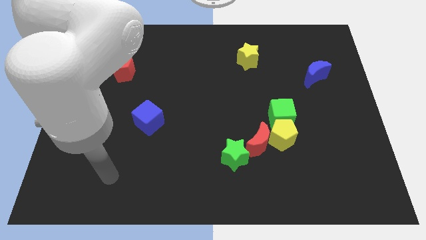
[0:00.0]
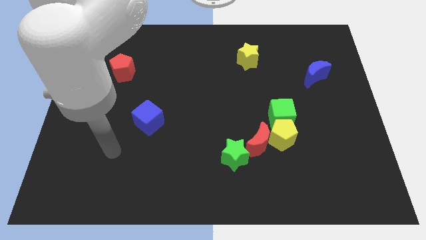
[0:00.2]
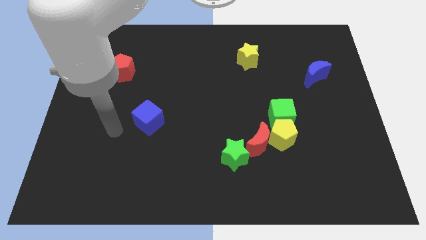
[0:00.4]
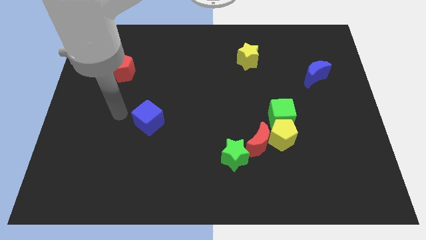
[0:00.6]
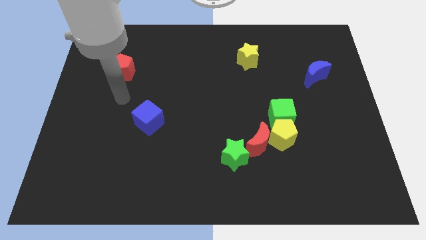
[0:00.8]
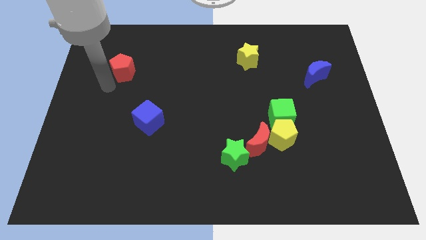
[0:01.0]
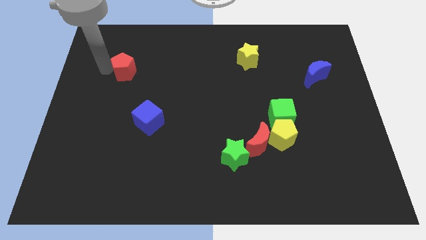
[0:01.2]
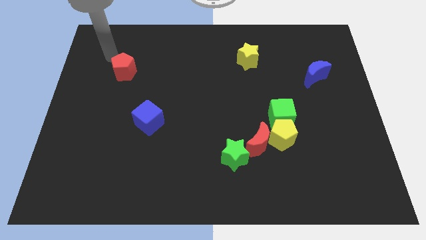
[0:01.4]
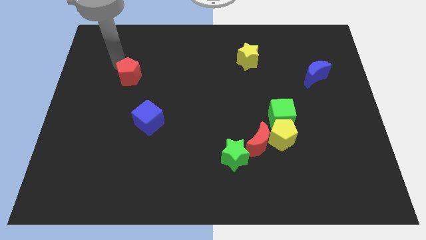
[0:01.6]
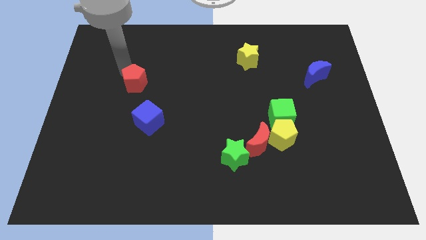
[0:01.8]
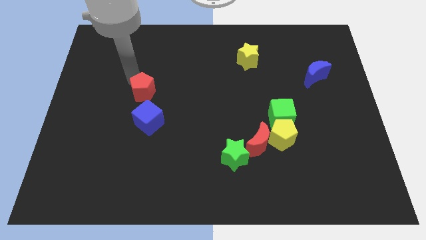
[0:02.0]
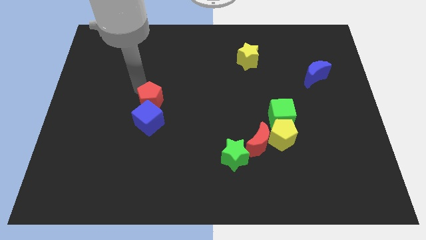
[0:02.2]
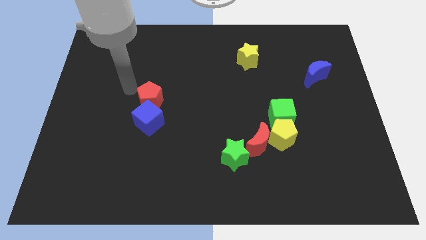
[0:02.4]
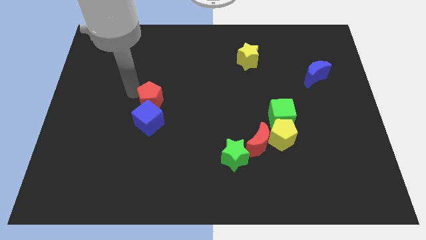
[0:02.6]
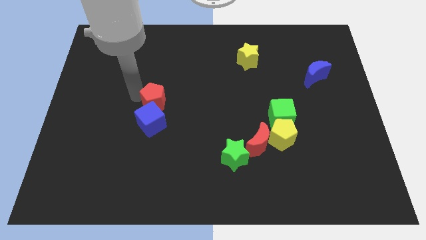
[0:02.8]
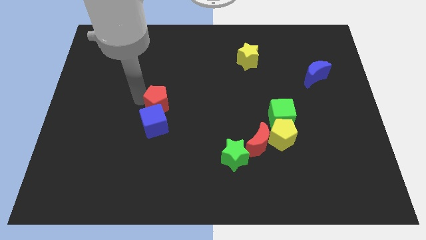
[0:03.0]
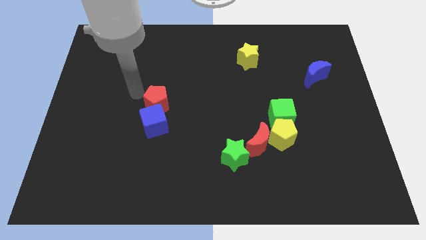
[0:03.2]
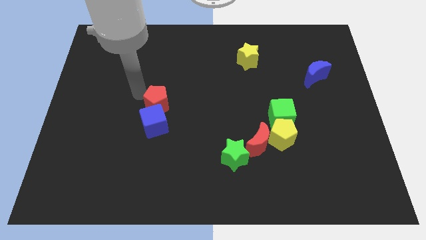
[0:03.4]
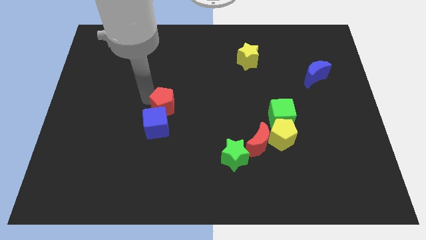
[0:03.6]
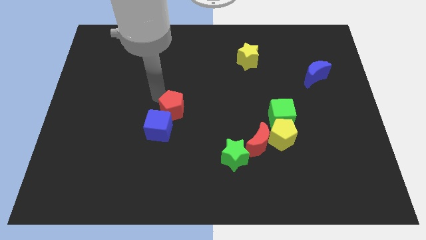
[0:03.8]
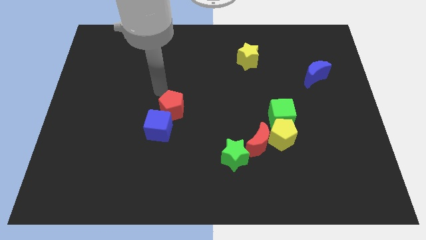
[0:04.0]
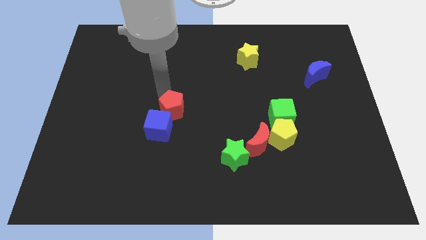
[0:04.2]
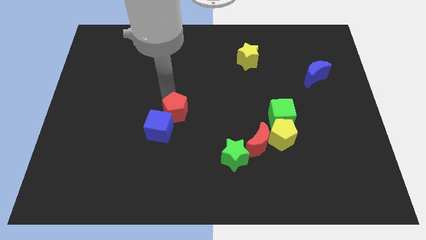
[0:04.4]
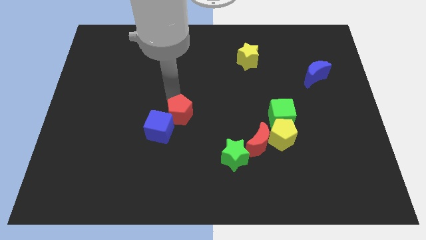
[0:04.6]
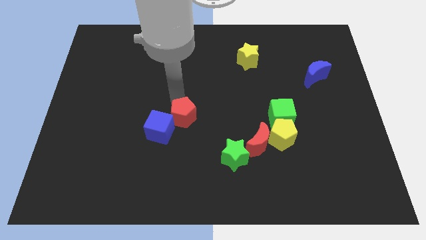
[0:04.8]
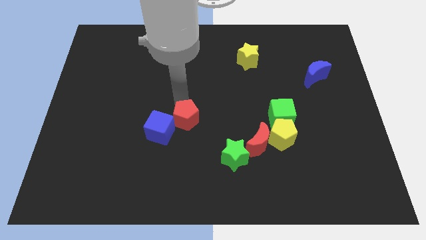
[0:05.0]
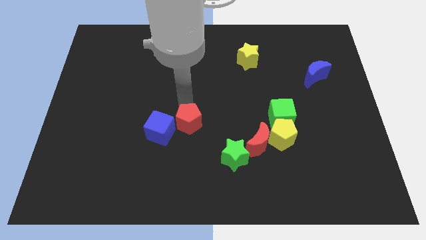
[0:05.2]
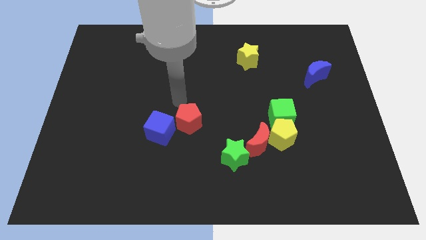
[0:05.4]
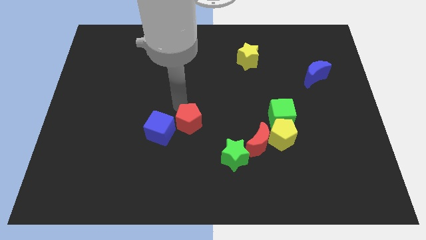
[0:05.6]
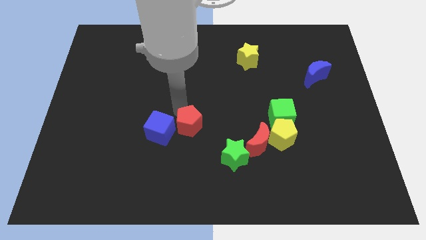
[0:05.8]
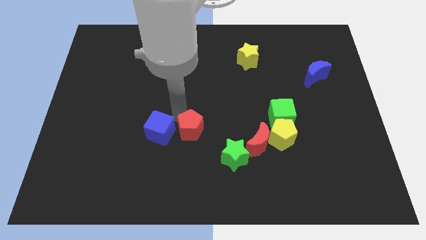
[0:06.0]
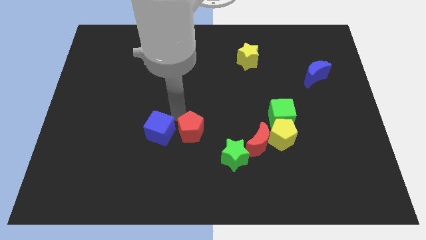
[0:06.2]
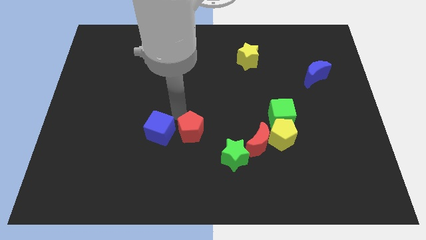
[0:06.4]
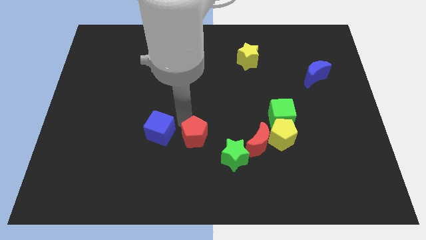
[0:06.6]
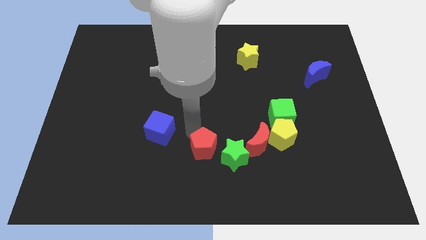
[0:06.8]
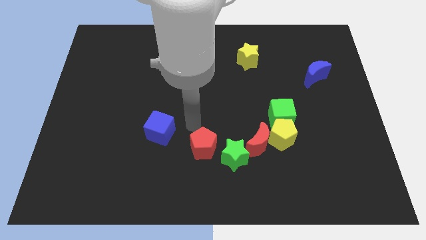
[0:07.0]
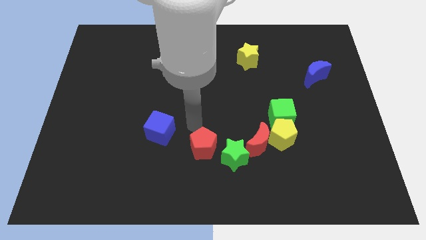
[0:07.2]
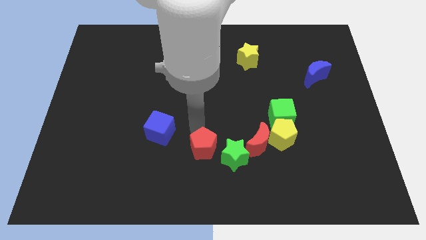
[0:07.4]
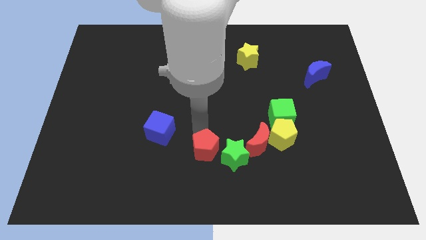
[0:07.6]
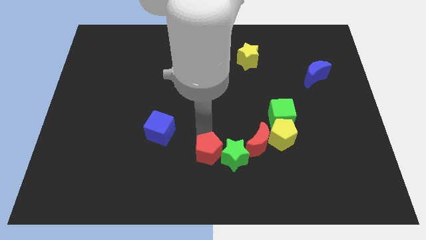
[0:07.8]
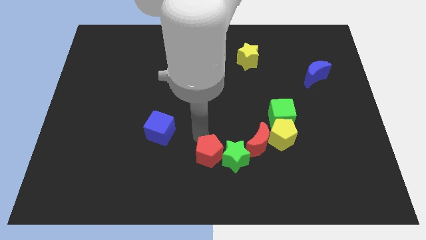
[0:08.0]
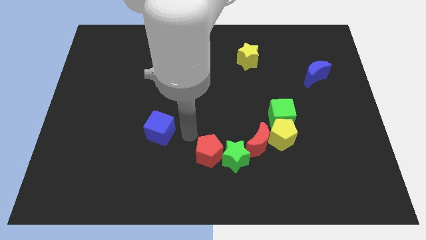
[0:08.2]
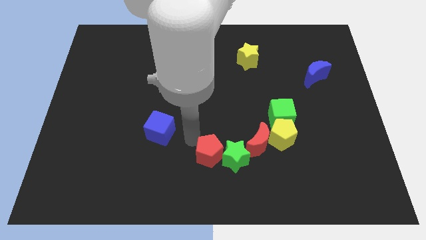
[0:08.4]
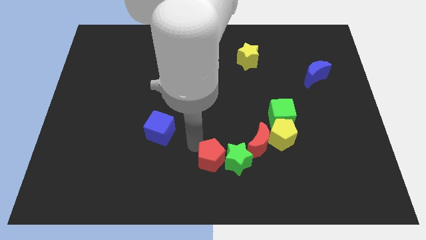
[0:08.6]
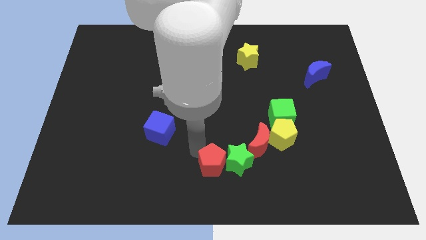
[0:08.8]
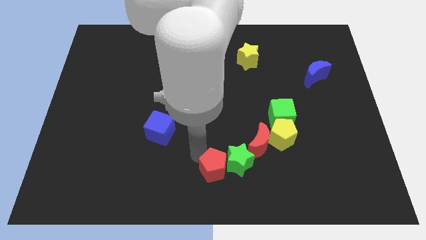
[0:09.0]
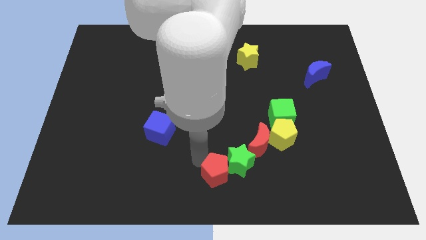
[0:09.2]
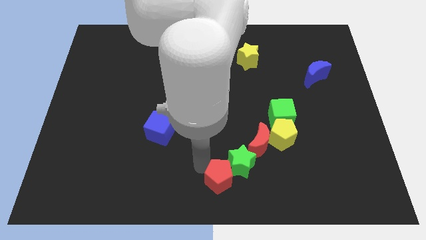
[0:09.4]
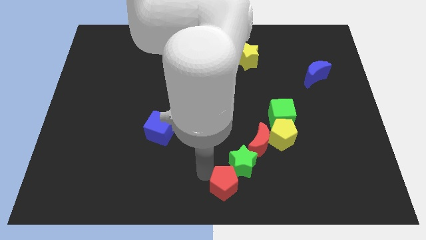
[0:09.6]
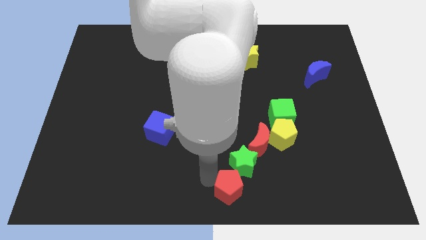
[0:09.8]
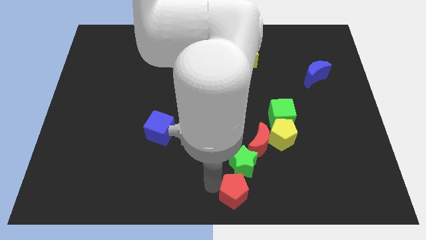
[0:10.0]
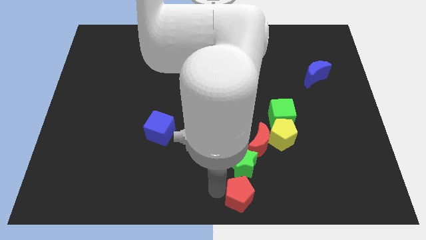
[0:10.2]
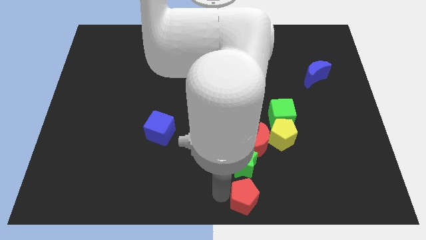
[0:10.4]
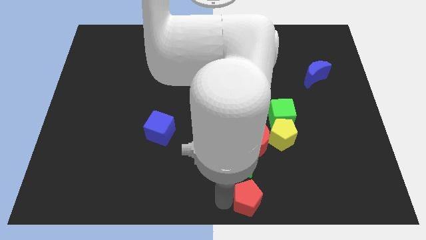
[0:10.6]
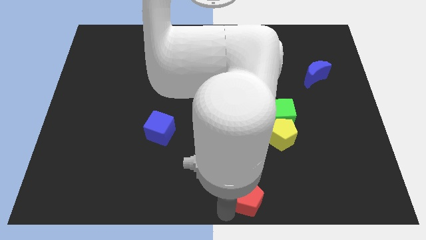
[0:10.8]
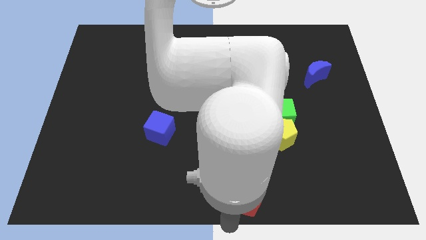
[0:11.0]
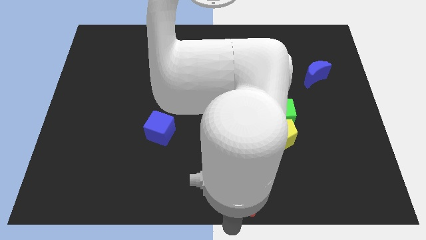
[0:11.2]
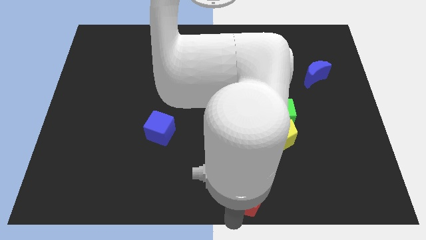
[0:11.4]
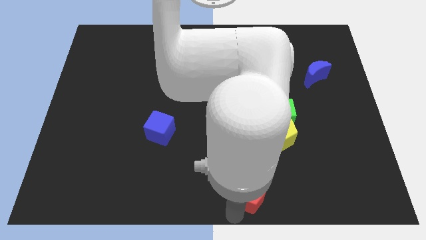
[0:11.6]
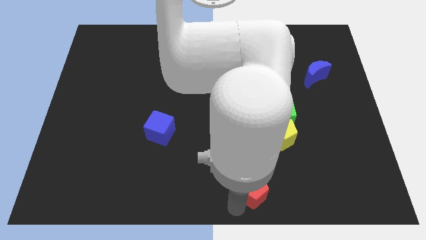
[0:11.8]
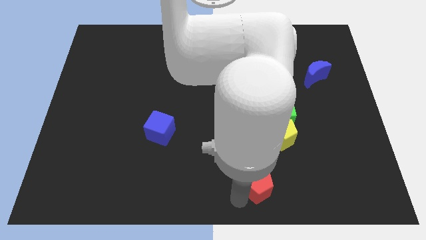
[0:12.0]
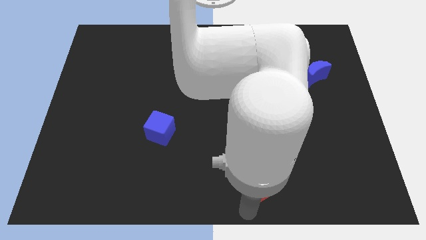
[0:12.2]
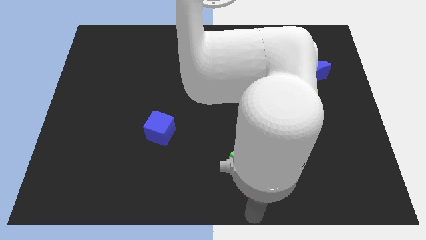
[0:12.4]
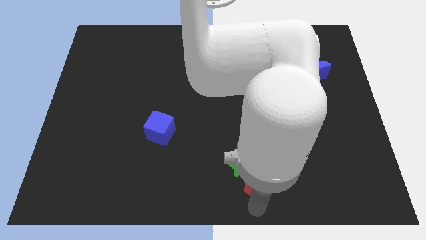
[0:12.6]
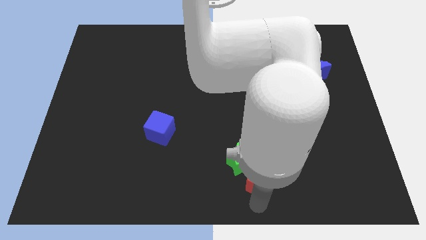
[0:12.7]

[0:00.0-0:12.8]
move the red pentagon to the bottom left of the yellow pentagon
